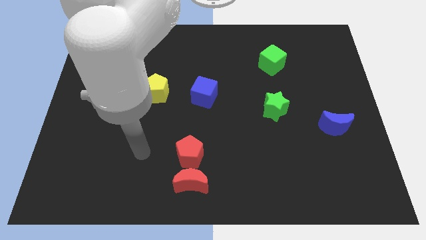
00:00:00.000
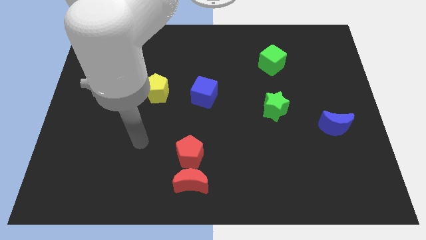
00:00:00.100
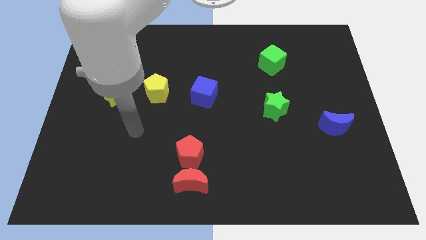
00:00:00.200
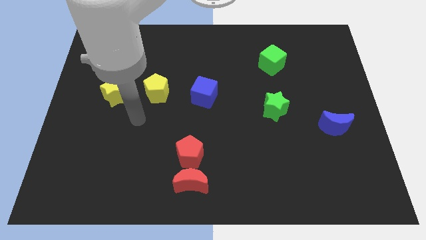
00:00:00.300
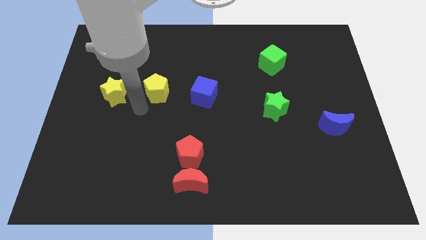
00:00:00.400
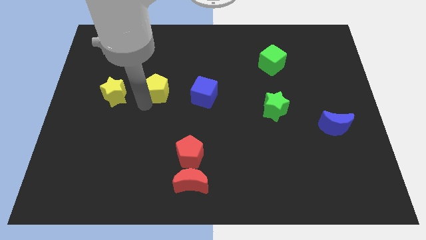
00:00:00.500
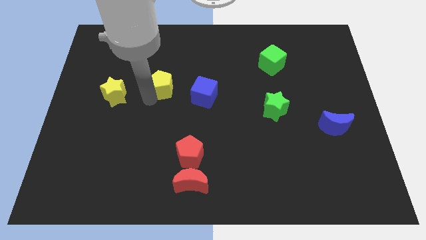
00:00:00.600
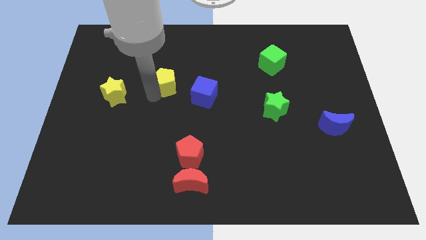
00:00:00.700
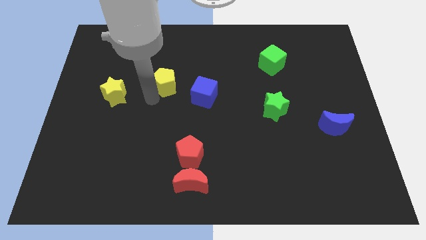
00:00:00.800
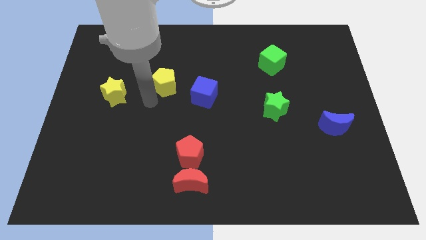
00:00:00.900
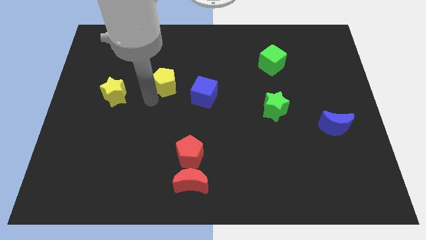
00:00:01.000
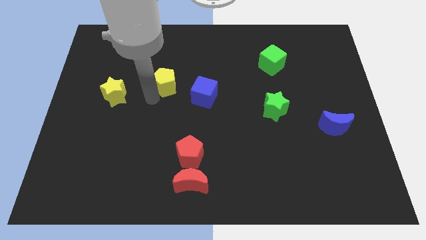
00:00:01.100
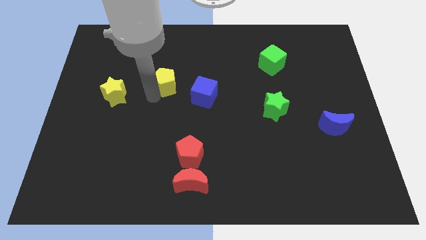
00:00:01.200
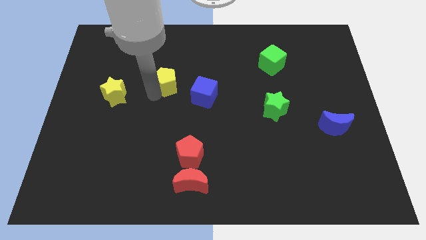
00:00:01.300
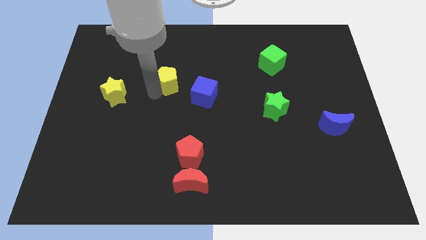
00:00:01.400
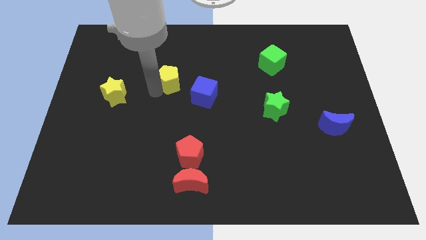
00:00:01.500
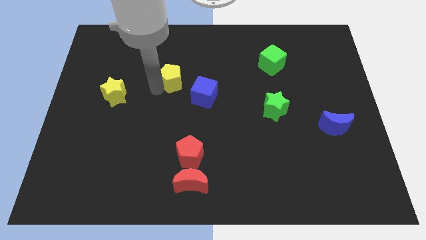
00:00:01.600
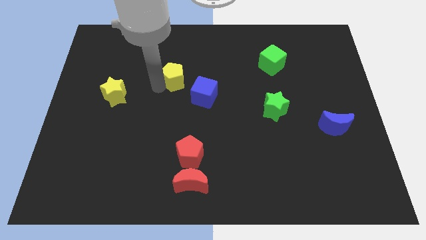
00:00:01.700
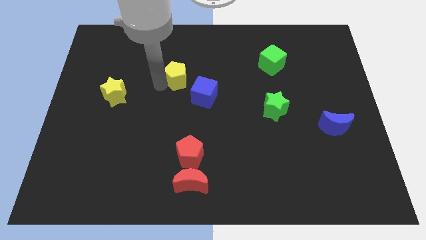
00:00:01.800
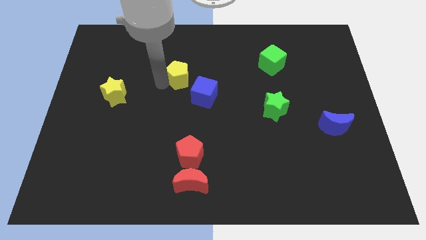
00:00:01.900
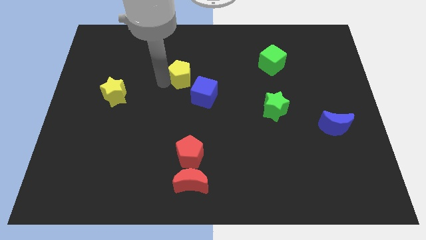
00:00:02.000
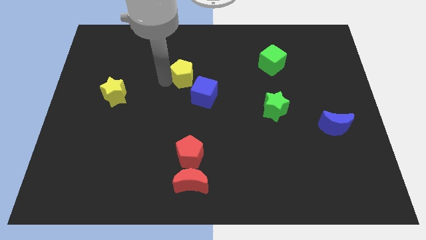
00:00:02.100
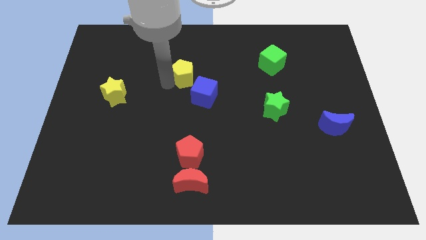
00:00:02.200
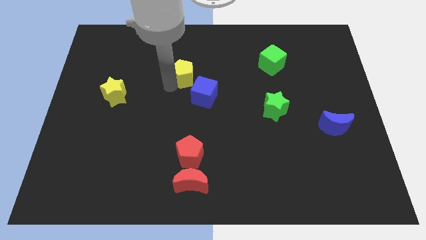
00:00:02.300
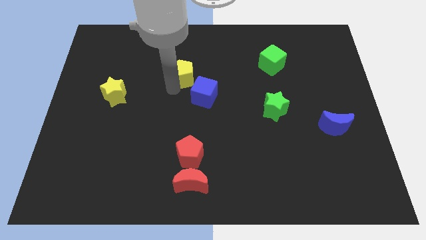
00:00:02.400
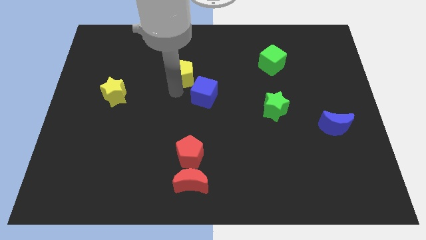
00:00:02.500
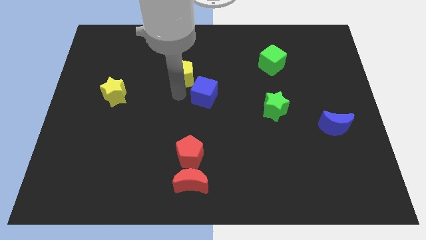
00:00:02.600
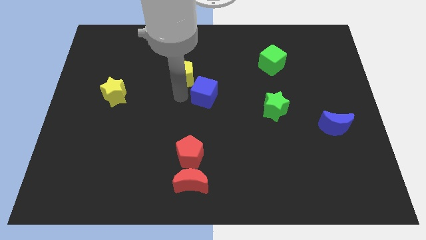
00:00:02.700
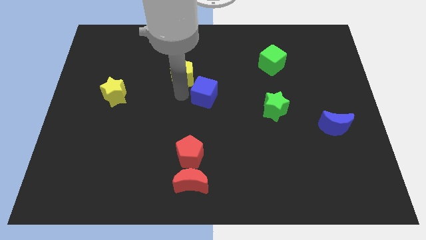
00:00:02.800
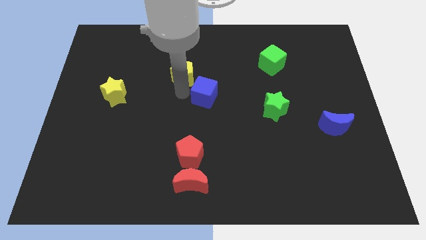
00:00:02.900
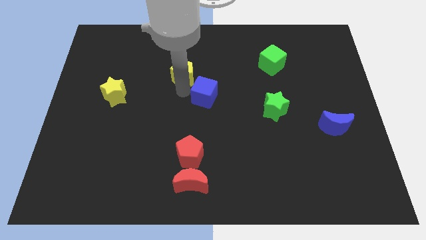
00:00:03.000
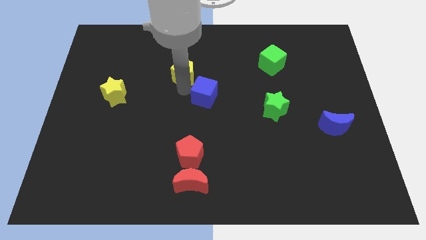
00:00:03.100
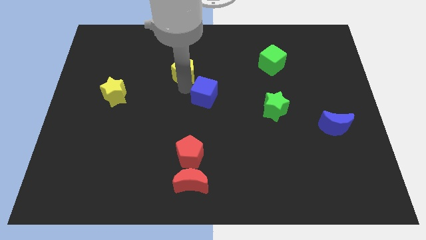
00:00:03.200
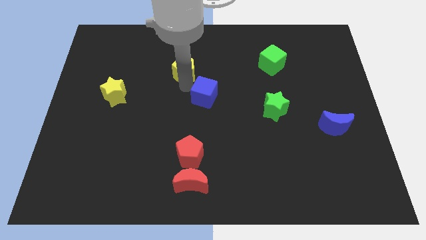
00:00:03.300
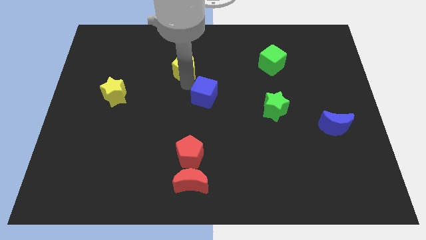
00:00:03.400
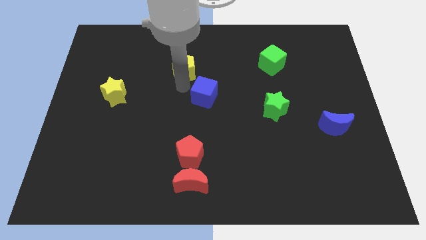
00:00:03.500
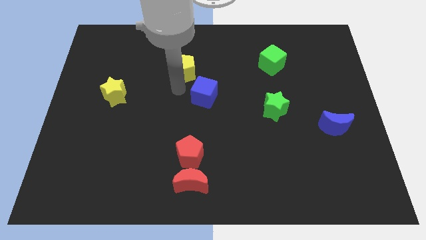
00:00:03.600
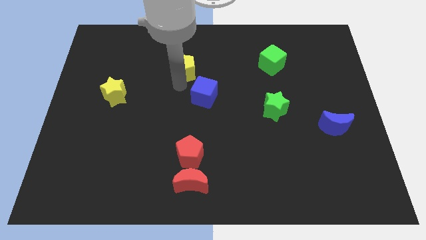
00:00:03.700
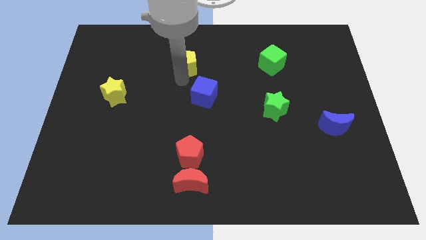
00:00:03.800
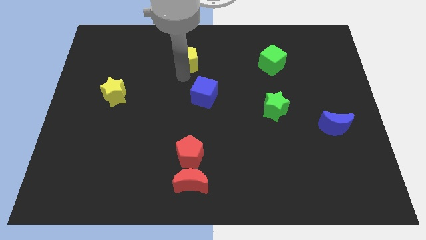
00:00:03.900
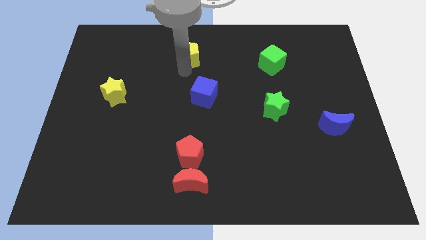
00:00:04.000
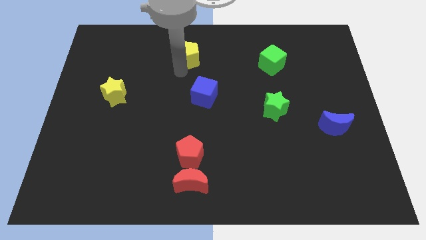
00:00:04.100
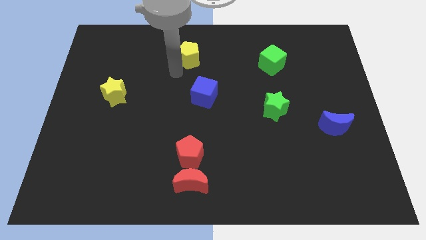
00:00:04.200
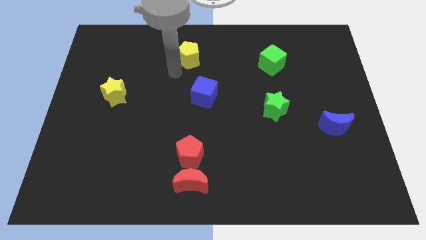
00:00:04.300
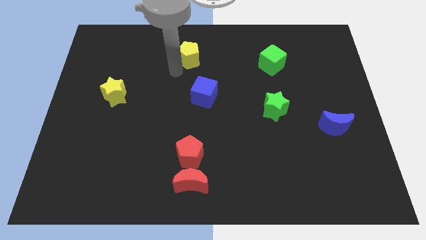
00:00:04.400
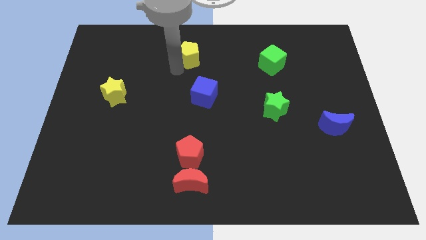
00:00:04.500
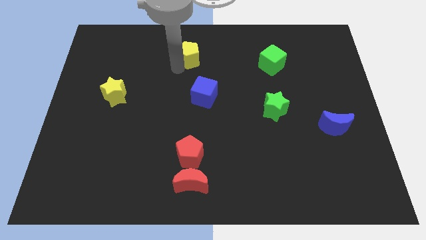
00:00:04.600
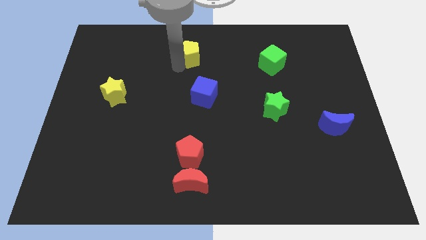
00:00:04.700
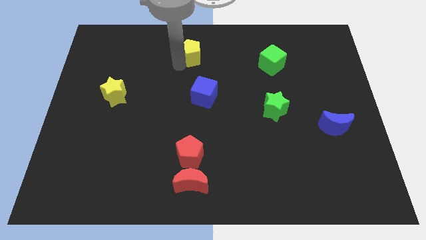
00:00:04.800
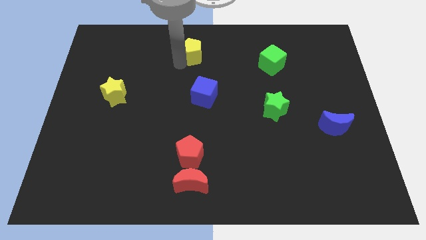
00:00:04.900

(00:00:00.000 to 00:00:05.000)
put the yellow pentagon to the towards your base

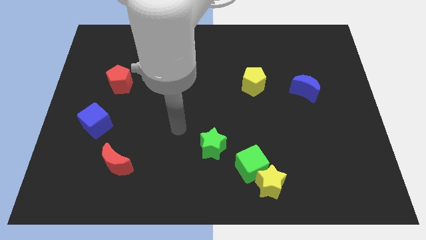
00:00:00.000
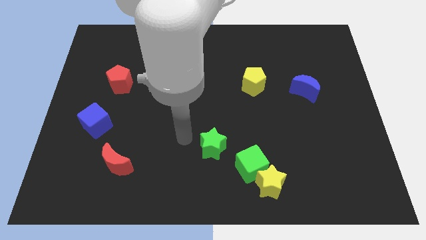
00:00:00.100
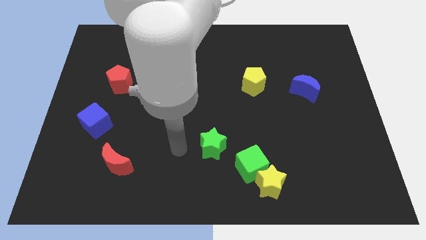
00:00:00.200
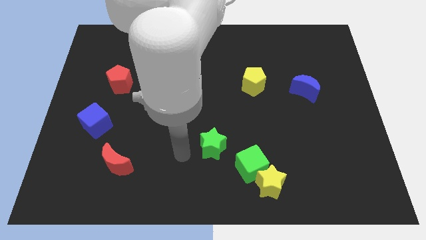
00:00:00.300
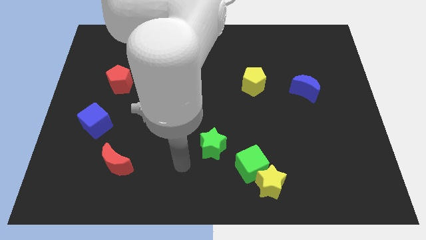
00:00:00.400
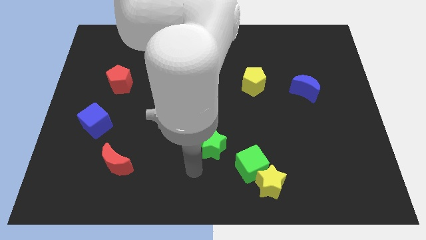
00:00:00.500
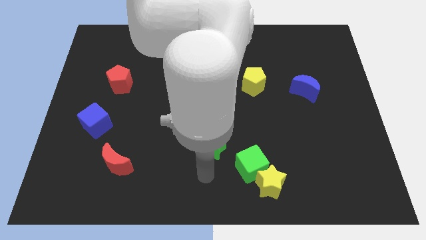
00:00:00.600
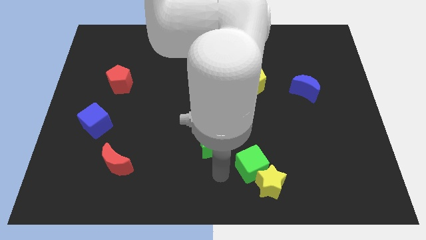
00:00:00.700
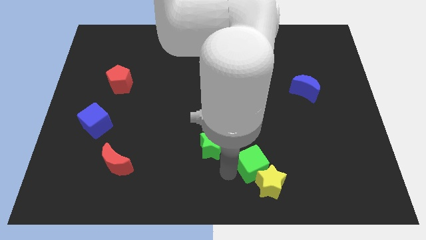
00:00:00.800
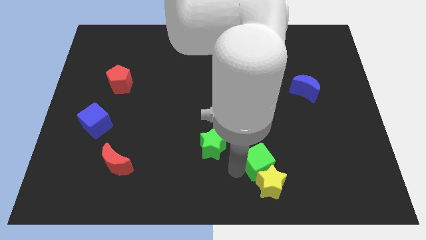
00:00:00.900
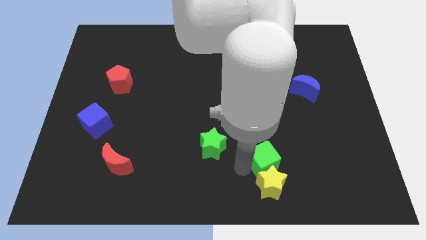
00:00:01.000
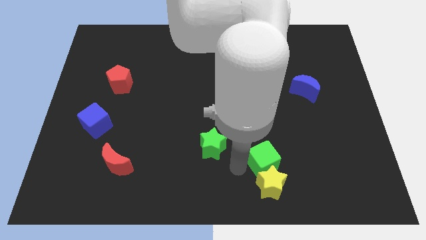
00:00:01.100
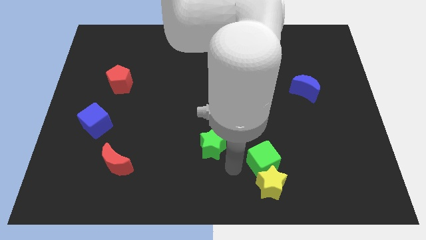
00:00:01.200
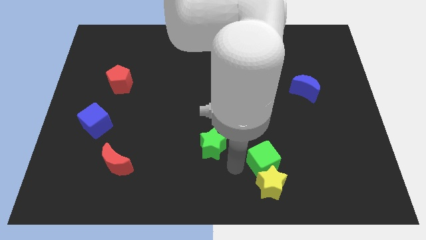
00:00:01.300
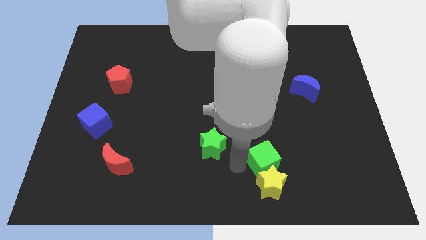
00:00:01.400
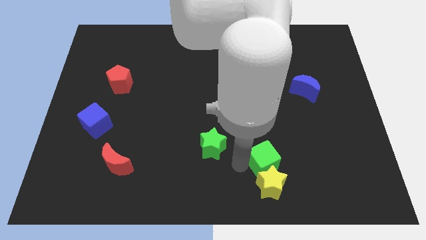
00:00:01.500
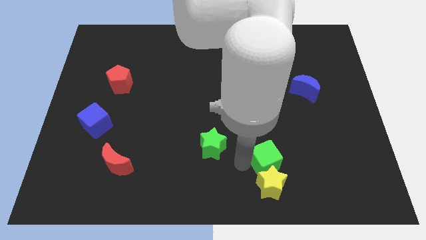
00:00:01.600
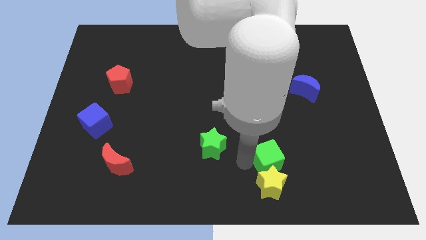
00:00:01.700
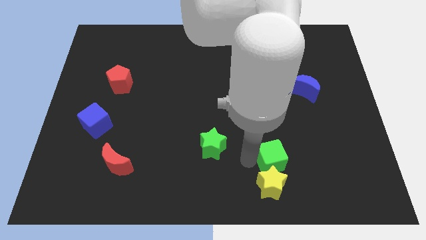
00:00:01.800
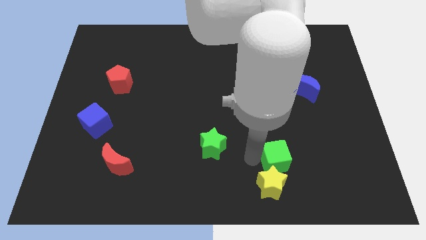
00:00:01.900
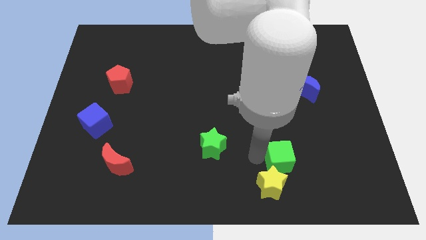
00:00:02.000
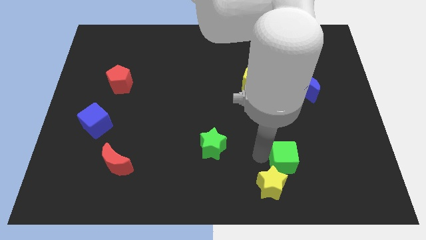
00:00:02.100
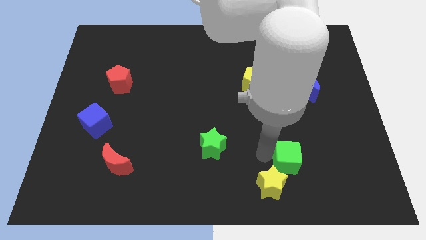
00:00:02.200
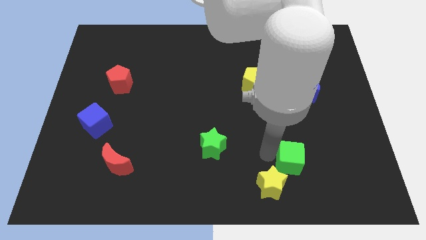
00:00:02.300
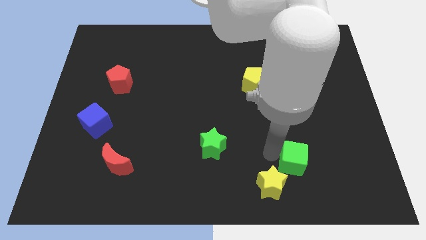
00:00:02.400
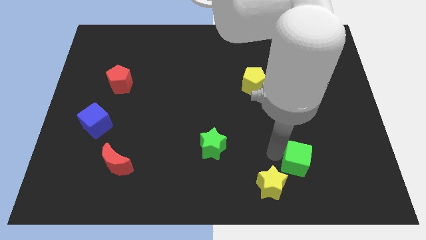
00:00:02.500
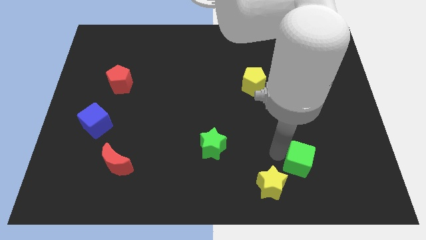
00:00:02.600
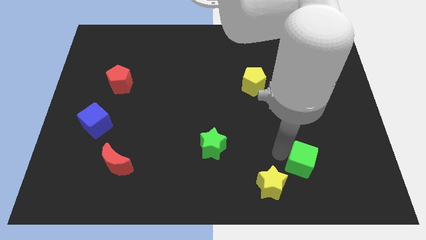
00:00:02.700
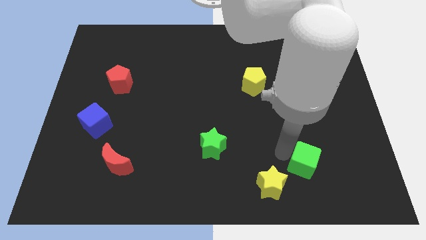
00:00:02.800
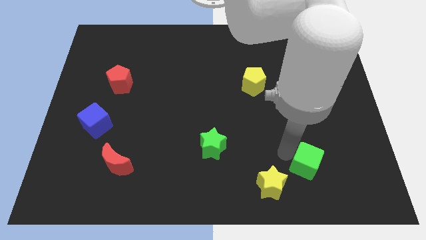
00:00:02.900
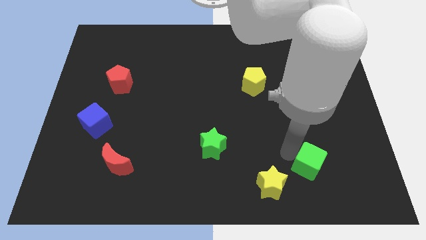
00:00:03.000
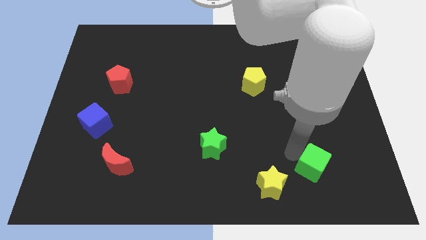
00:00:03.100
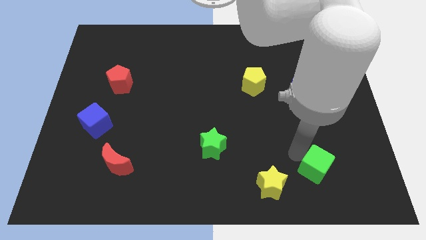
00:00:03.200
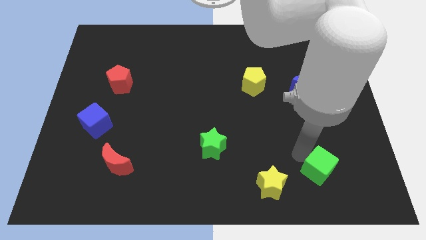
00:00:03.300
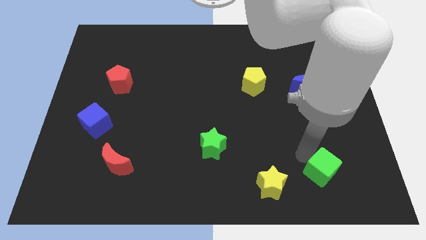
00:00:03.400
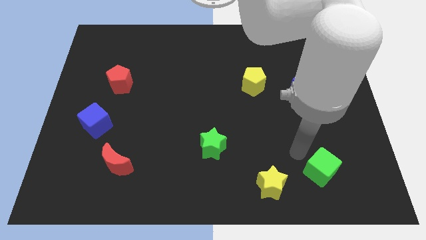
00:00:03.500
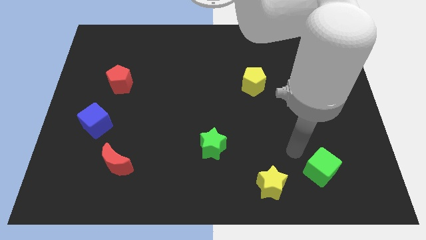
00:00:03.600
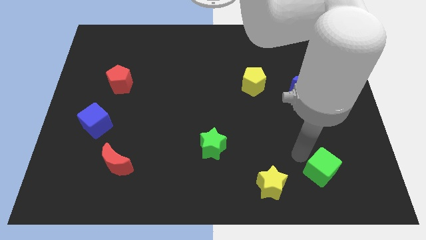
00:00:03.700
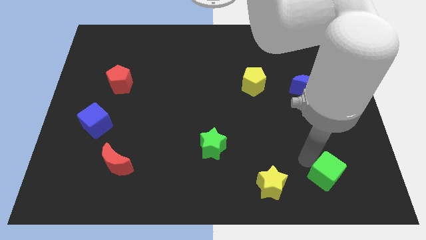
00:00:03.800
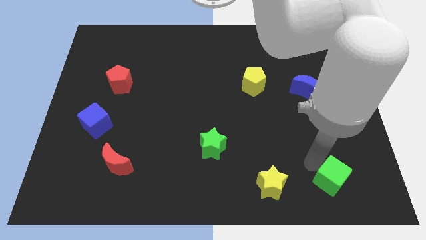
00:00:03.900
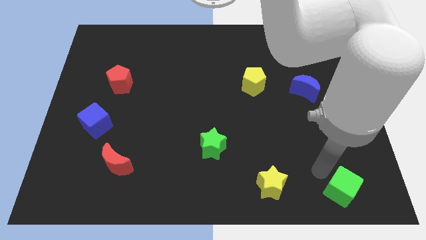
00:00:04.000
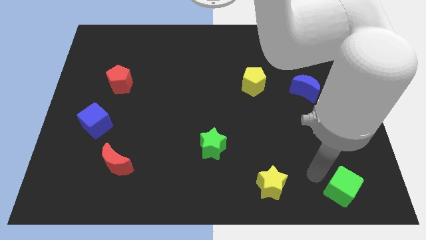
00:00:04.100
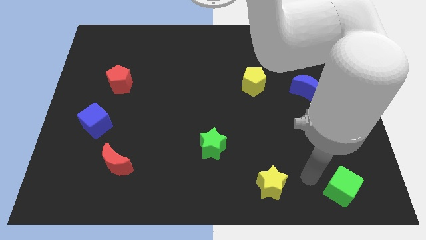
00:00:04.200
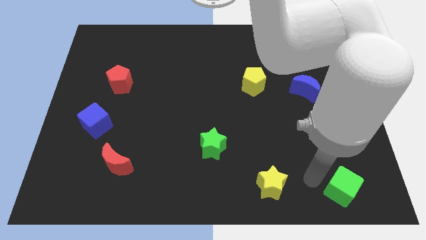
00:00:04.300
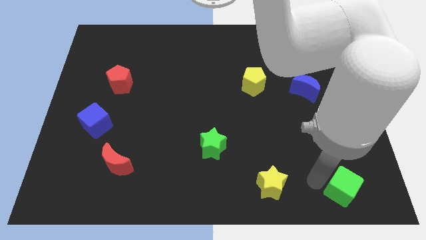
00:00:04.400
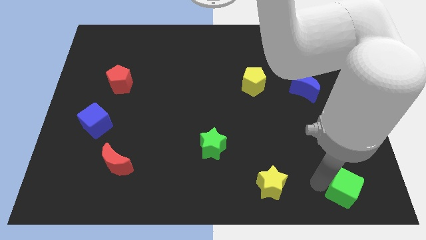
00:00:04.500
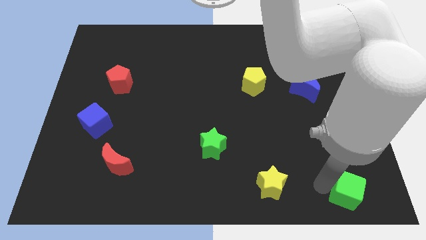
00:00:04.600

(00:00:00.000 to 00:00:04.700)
move the green cube to the bottom right of the board
